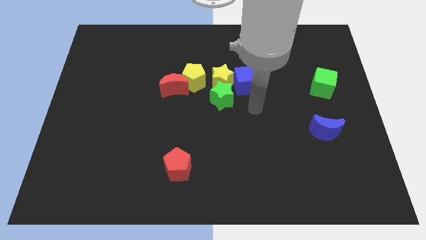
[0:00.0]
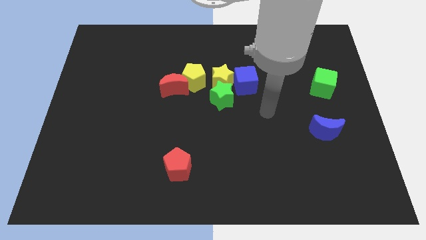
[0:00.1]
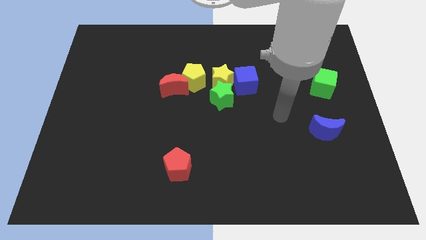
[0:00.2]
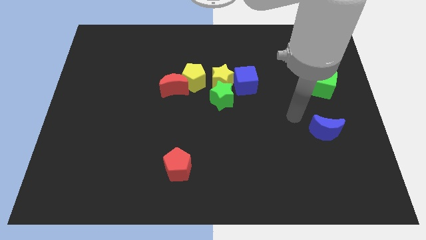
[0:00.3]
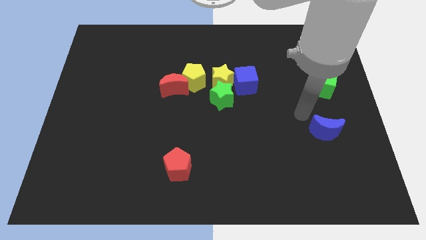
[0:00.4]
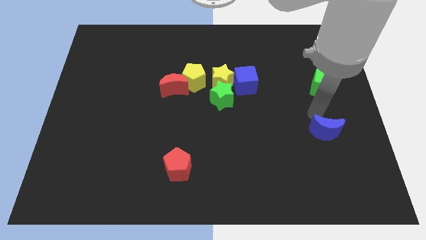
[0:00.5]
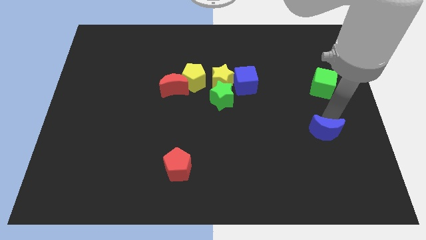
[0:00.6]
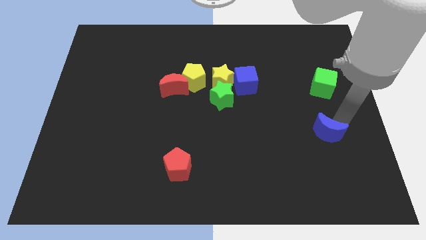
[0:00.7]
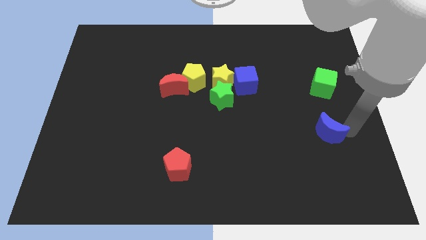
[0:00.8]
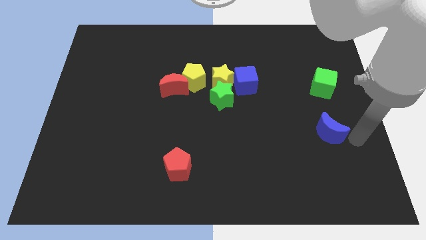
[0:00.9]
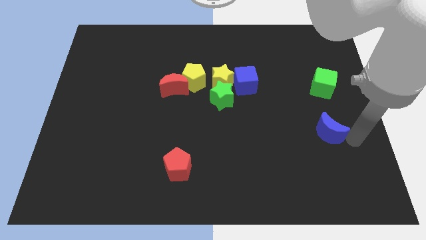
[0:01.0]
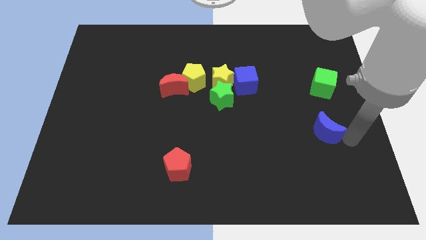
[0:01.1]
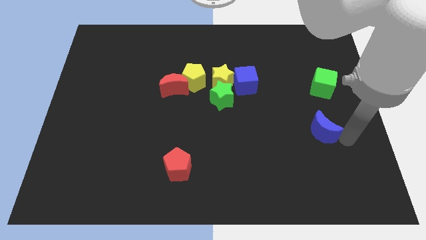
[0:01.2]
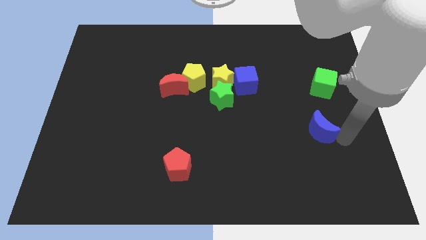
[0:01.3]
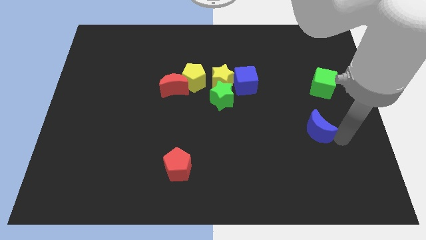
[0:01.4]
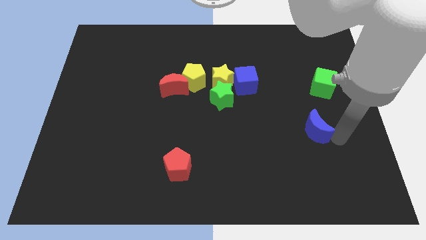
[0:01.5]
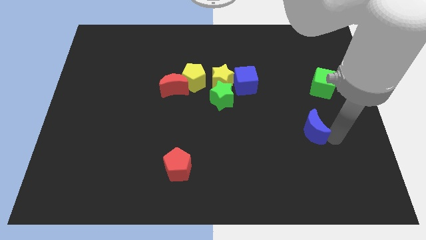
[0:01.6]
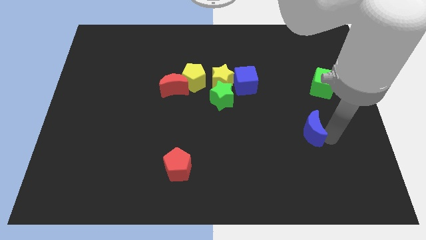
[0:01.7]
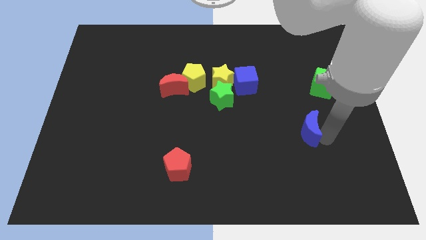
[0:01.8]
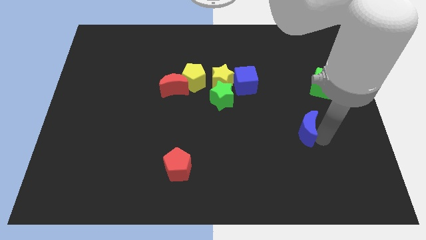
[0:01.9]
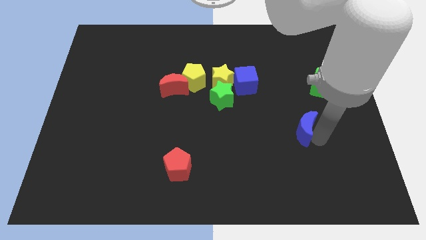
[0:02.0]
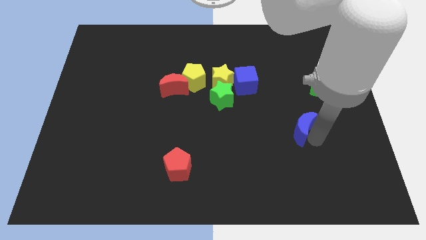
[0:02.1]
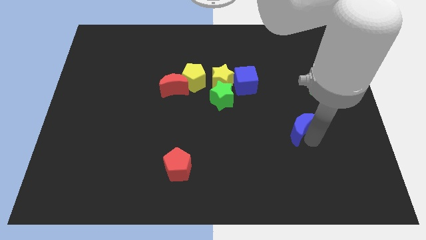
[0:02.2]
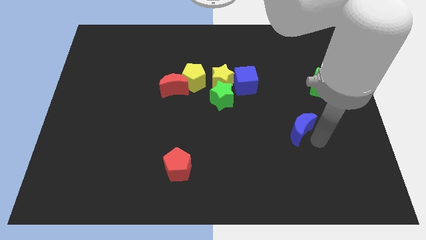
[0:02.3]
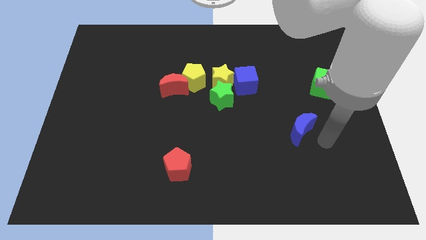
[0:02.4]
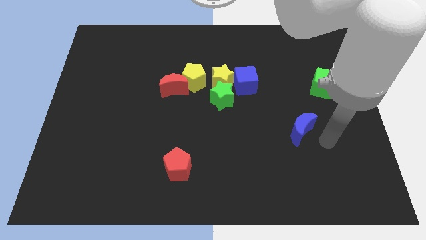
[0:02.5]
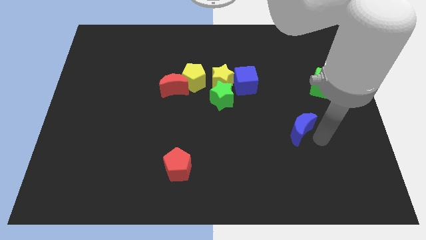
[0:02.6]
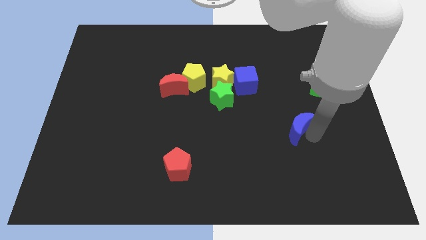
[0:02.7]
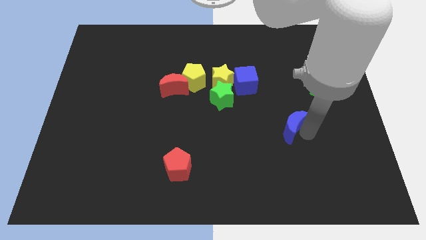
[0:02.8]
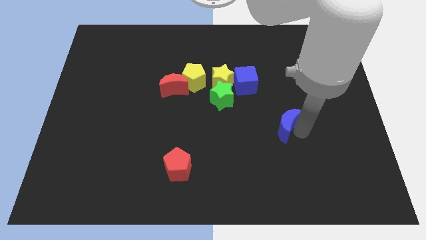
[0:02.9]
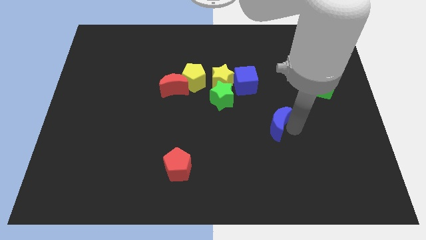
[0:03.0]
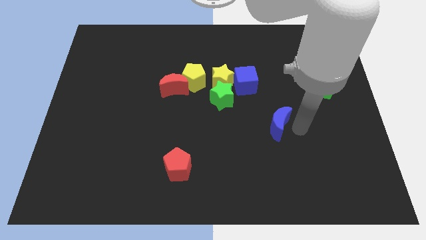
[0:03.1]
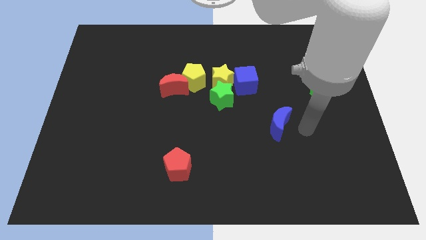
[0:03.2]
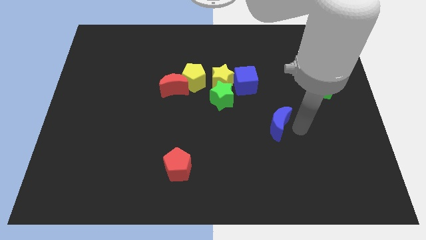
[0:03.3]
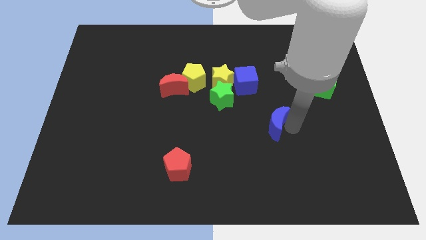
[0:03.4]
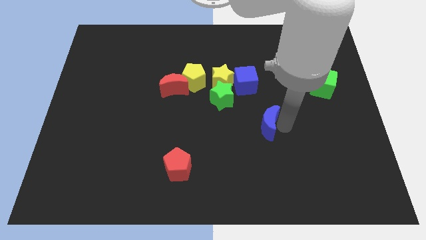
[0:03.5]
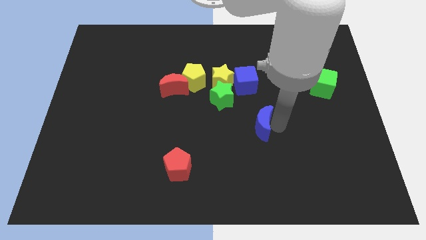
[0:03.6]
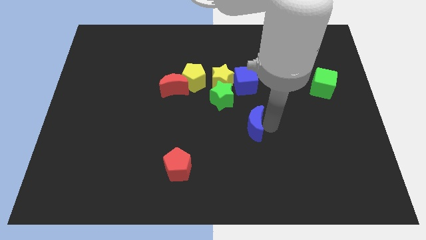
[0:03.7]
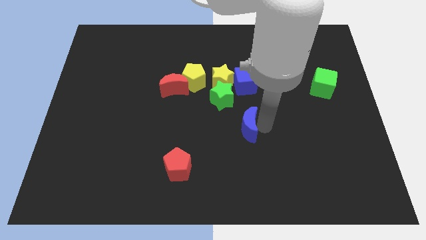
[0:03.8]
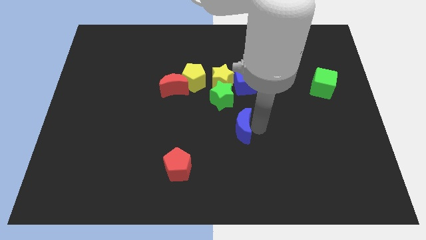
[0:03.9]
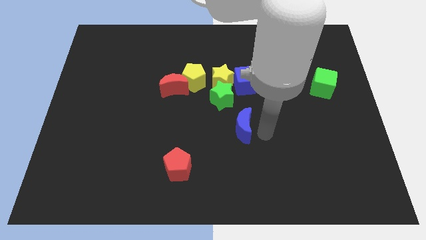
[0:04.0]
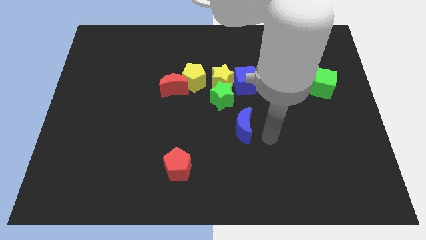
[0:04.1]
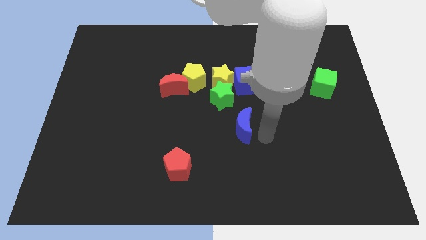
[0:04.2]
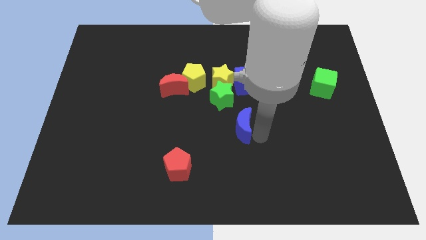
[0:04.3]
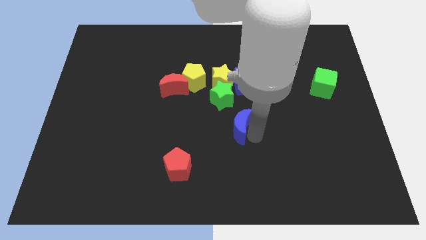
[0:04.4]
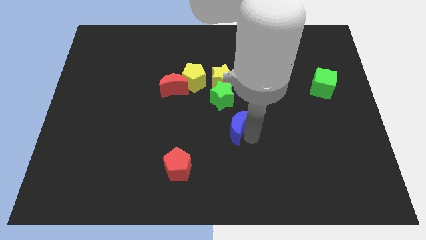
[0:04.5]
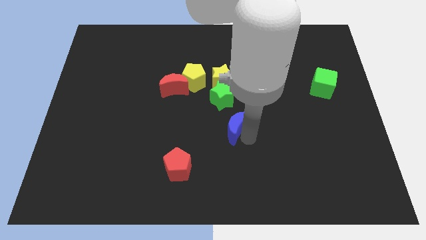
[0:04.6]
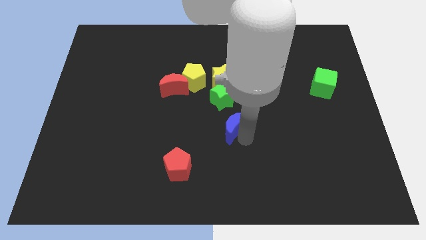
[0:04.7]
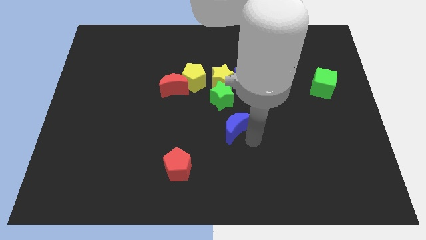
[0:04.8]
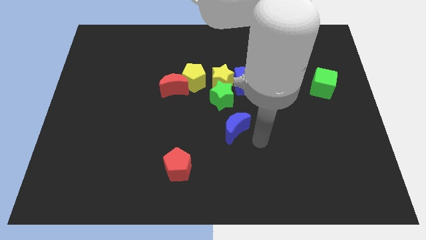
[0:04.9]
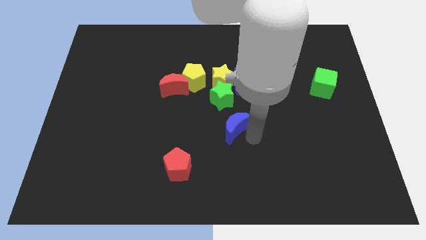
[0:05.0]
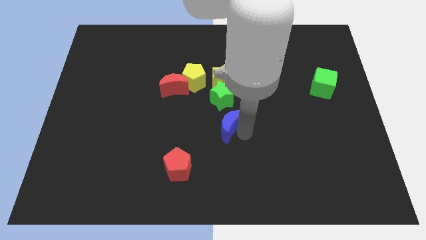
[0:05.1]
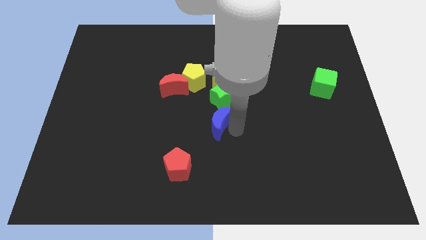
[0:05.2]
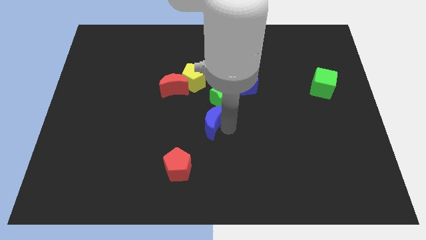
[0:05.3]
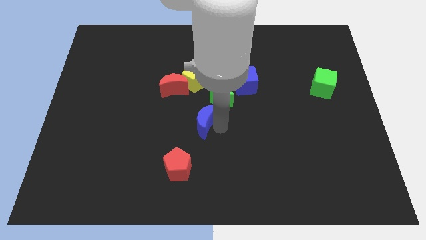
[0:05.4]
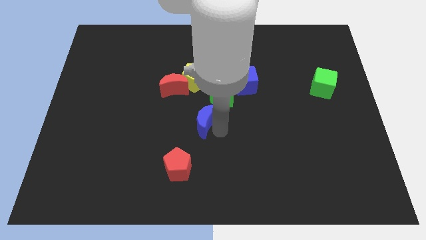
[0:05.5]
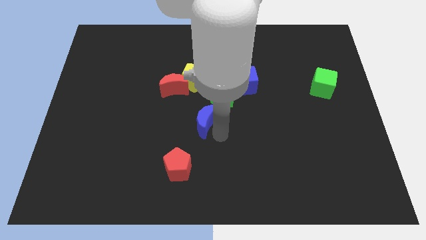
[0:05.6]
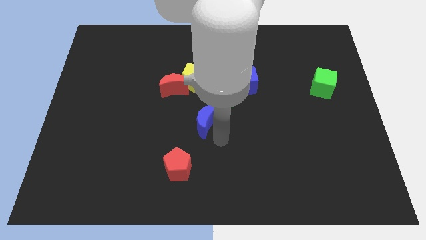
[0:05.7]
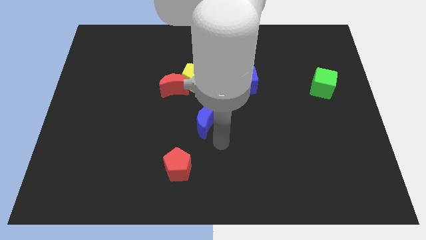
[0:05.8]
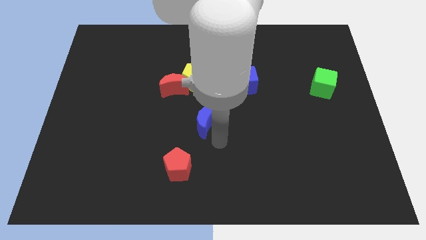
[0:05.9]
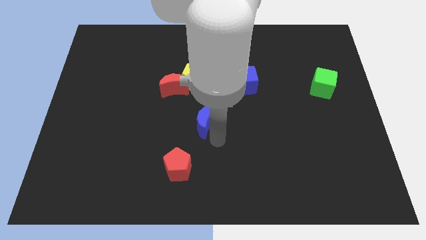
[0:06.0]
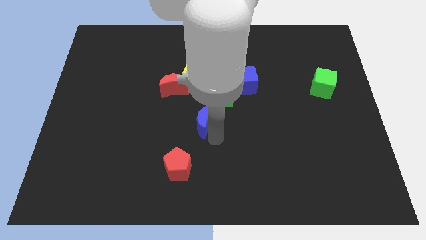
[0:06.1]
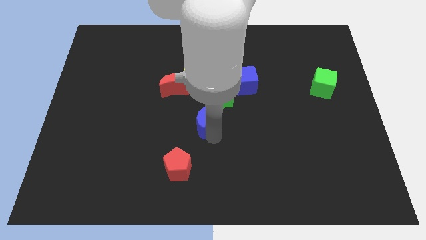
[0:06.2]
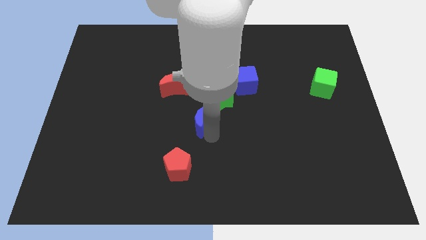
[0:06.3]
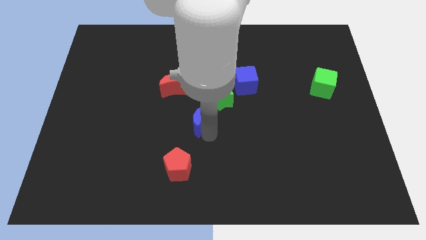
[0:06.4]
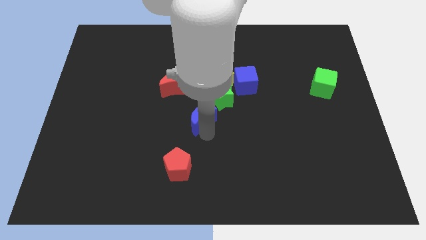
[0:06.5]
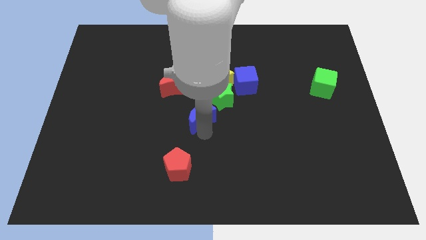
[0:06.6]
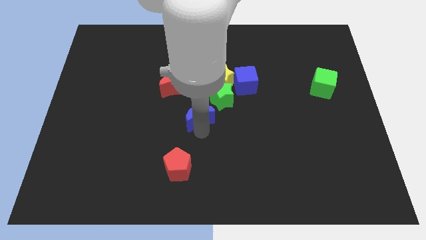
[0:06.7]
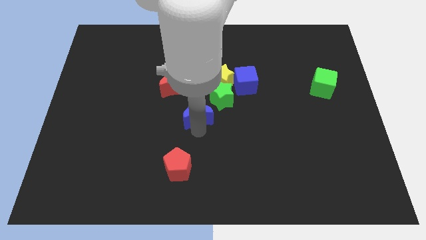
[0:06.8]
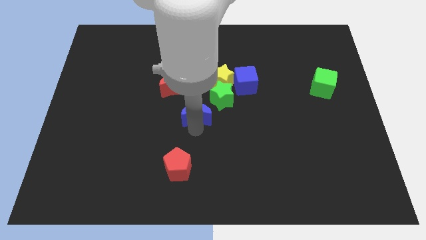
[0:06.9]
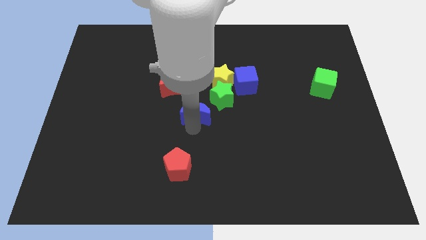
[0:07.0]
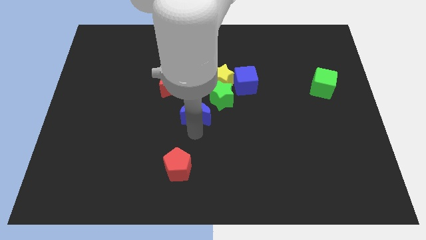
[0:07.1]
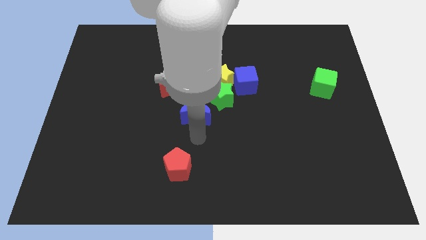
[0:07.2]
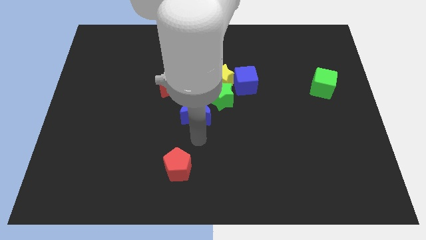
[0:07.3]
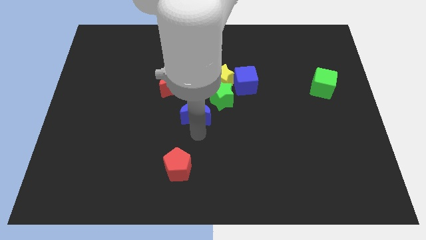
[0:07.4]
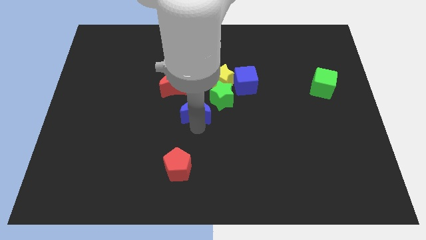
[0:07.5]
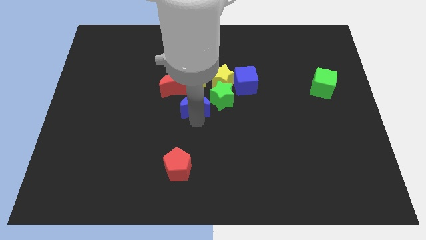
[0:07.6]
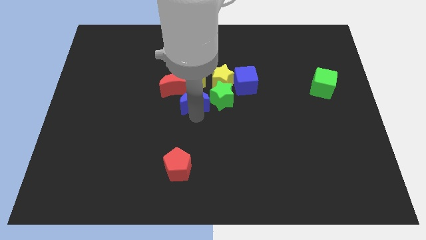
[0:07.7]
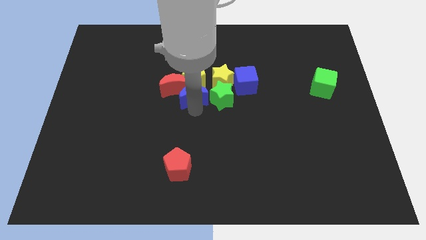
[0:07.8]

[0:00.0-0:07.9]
push the blue moon next to the yellow pentagon
